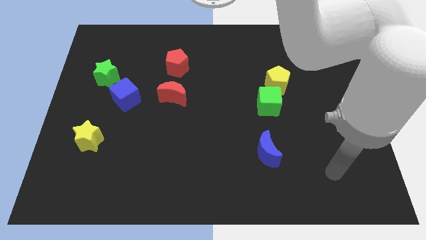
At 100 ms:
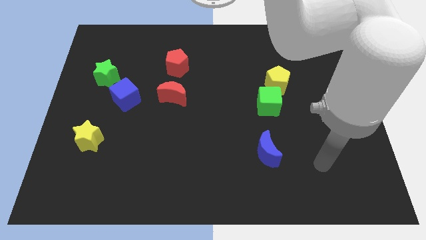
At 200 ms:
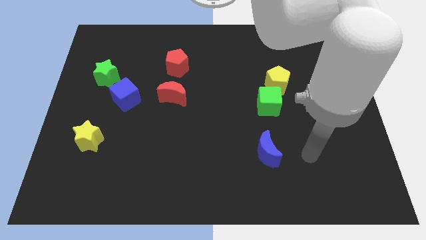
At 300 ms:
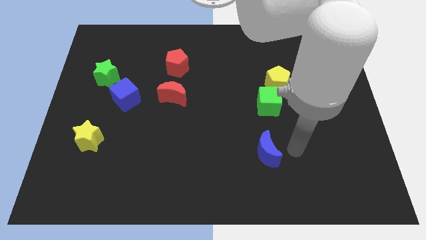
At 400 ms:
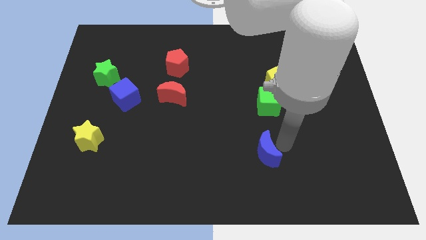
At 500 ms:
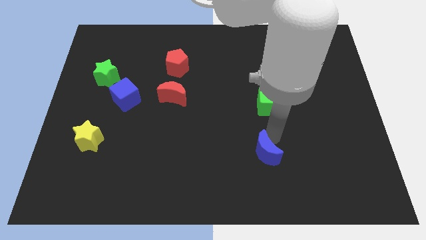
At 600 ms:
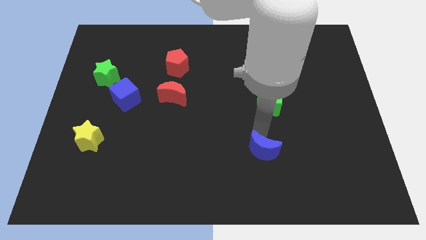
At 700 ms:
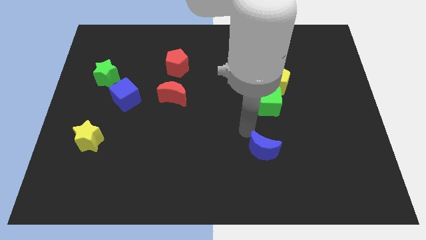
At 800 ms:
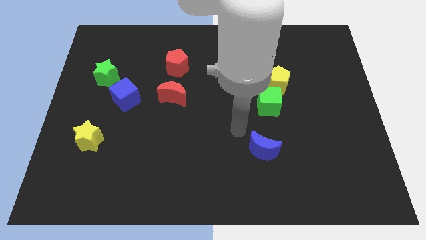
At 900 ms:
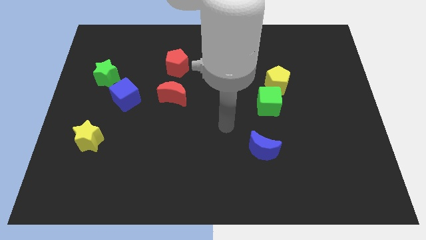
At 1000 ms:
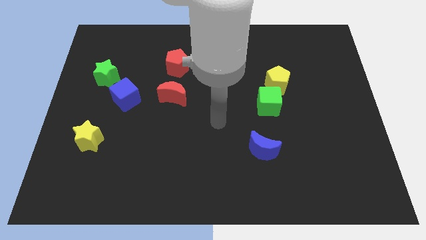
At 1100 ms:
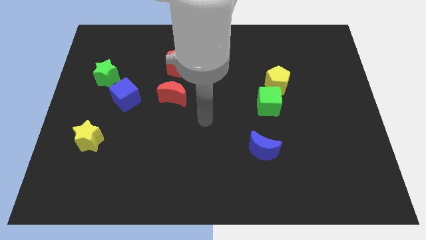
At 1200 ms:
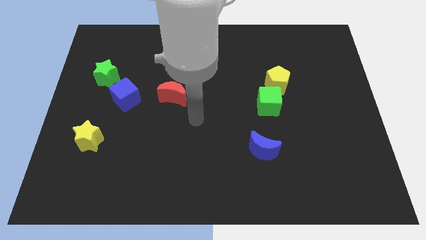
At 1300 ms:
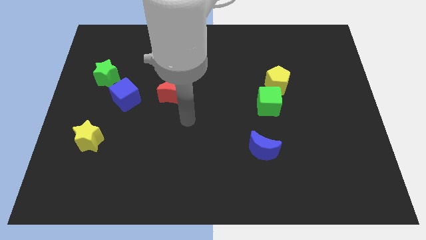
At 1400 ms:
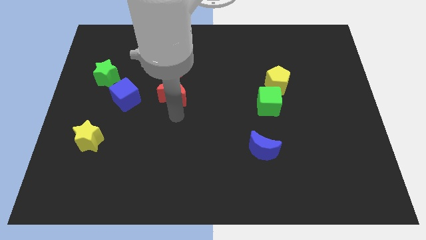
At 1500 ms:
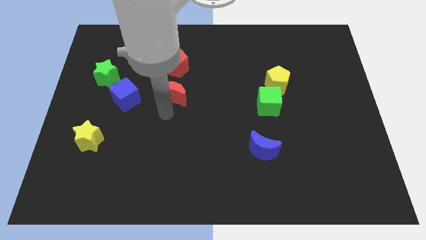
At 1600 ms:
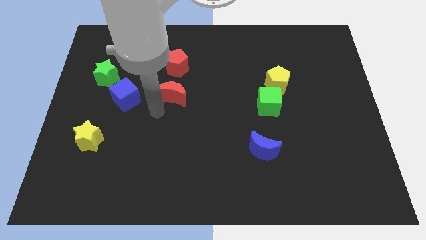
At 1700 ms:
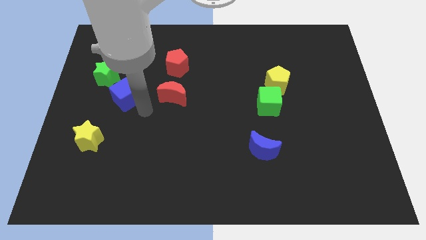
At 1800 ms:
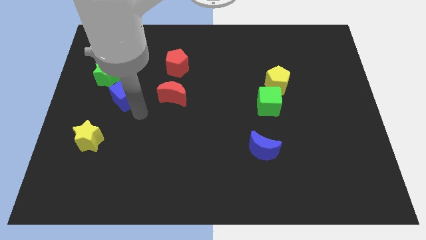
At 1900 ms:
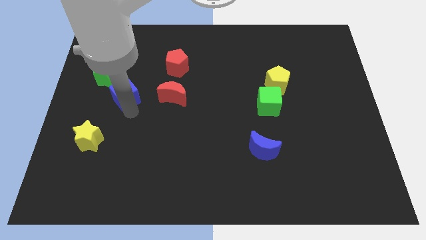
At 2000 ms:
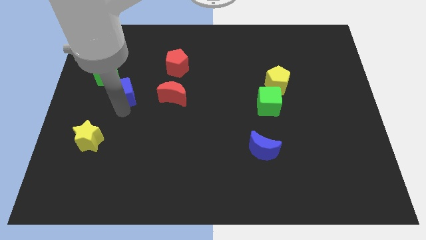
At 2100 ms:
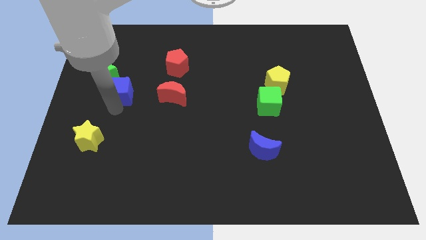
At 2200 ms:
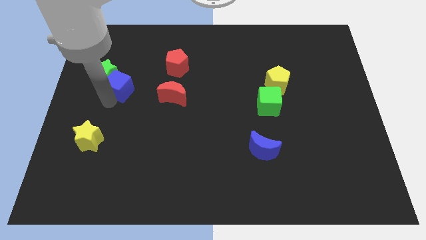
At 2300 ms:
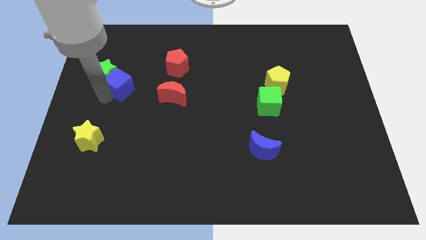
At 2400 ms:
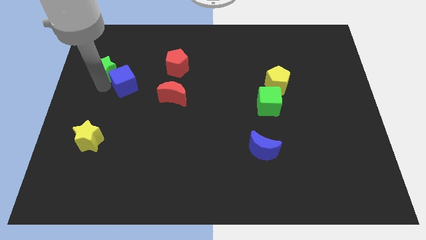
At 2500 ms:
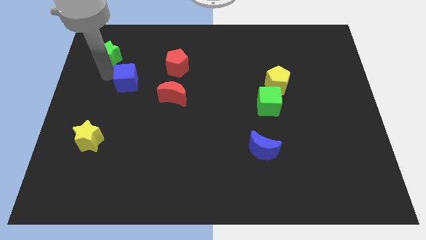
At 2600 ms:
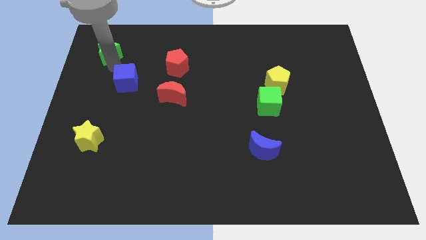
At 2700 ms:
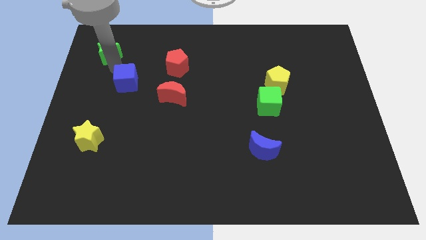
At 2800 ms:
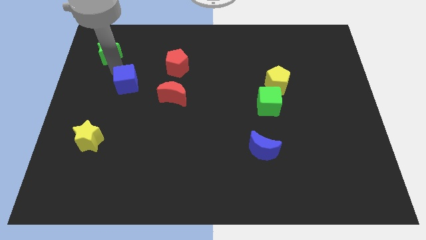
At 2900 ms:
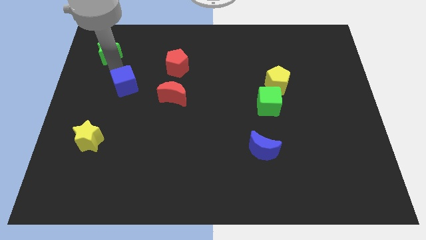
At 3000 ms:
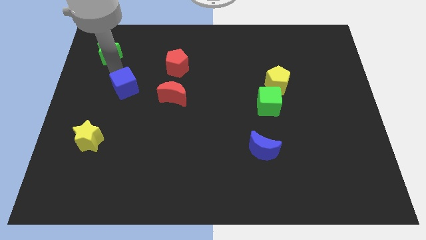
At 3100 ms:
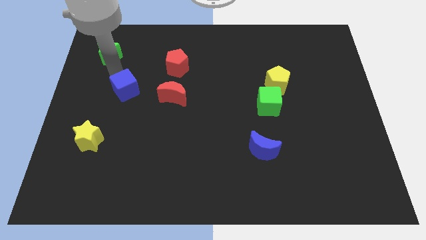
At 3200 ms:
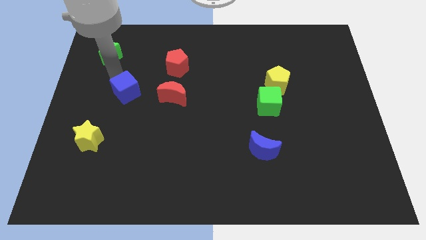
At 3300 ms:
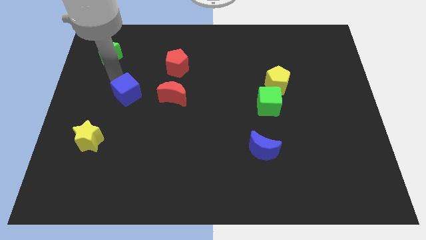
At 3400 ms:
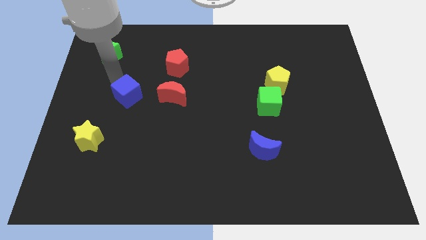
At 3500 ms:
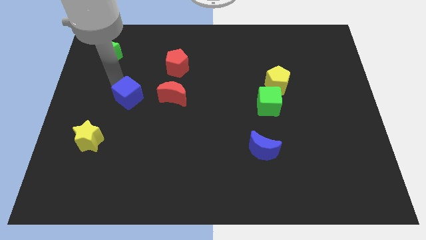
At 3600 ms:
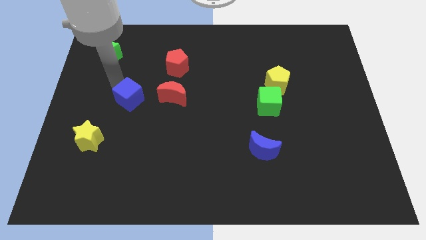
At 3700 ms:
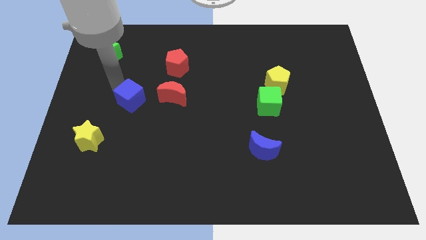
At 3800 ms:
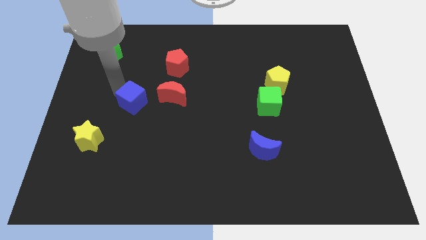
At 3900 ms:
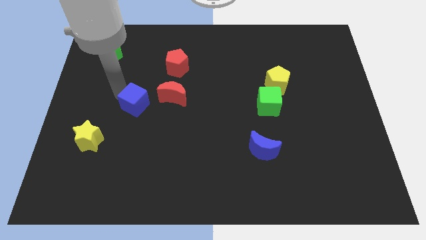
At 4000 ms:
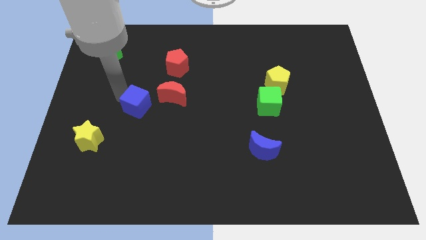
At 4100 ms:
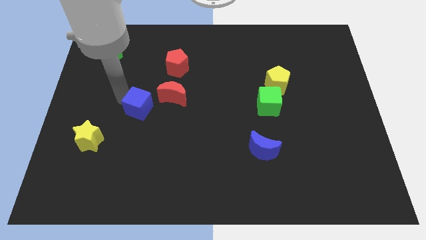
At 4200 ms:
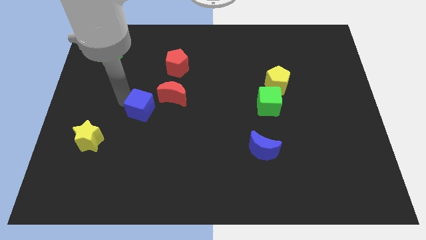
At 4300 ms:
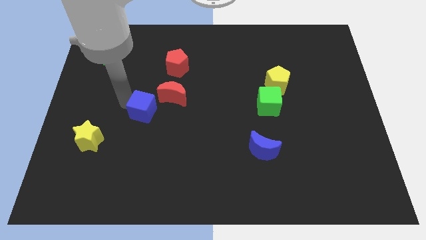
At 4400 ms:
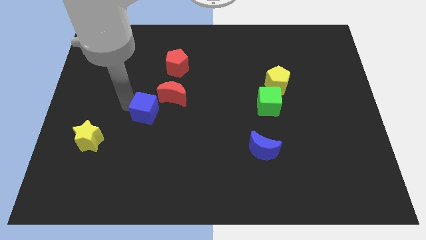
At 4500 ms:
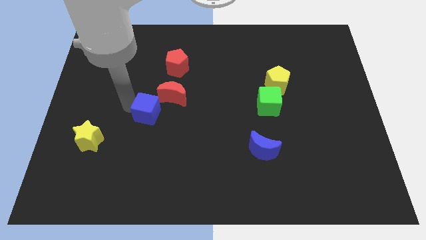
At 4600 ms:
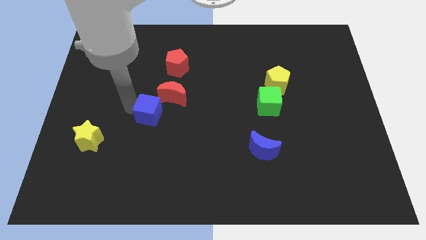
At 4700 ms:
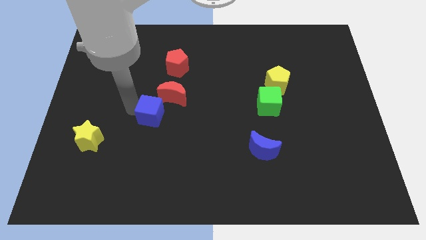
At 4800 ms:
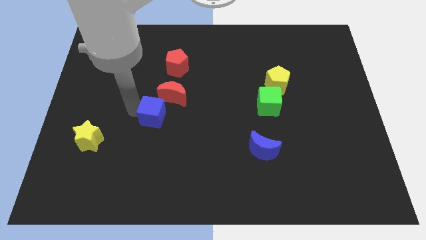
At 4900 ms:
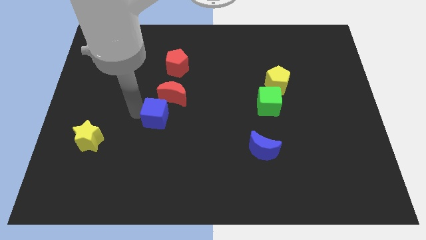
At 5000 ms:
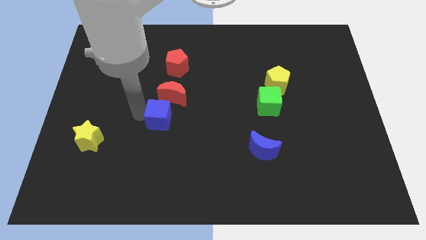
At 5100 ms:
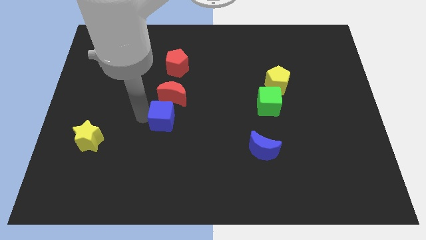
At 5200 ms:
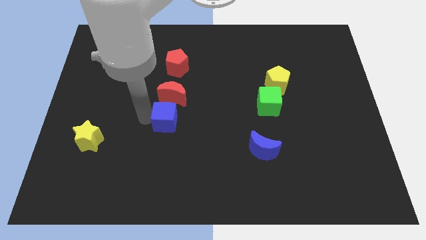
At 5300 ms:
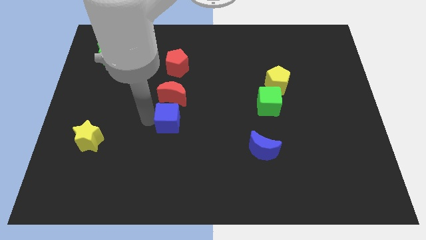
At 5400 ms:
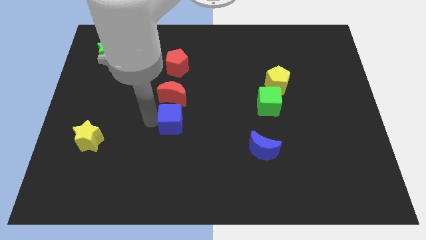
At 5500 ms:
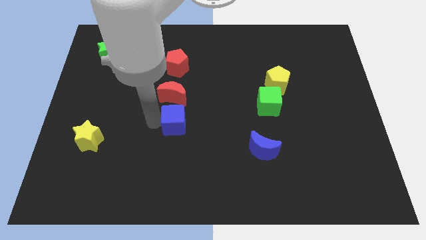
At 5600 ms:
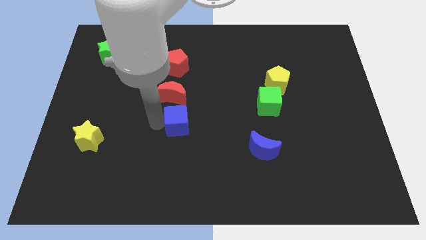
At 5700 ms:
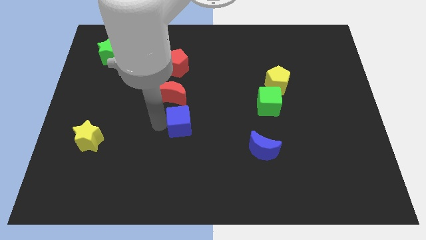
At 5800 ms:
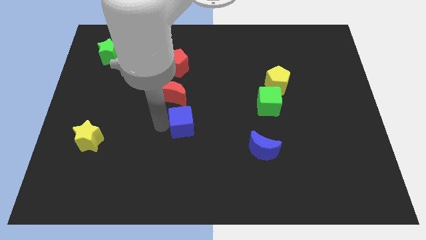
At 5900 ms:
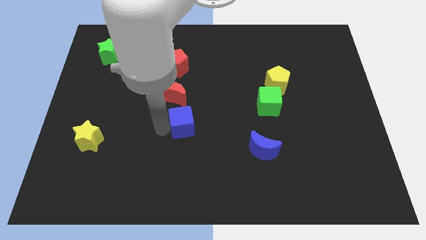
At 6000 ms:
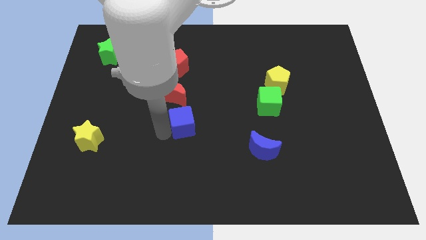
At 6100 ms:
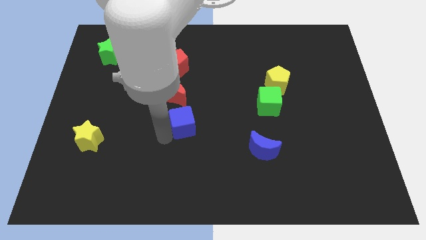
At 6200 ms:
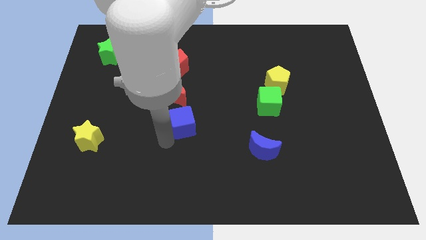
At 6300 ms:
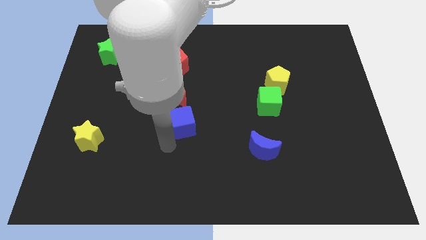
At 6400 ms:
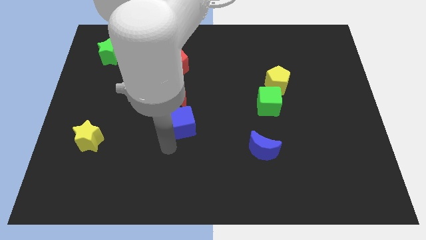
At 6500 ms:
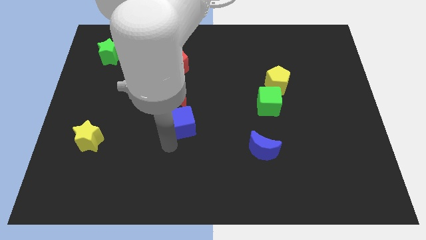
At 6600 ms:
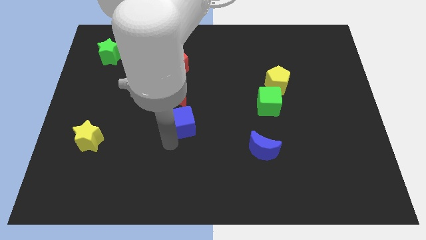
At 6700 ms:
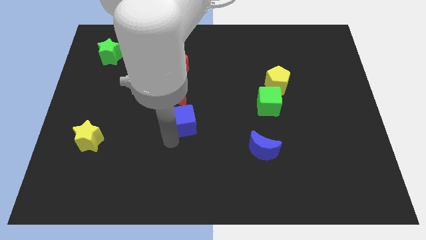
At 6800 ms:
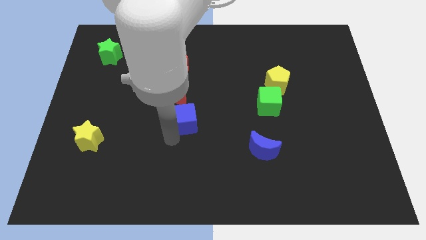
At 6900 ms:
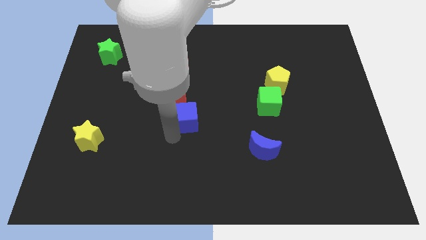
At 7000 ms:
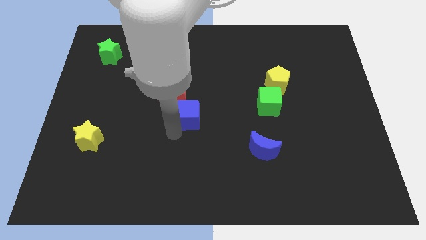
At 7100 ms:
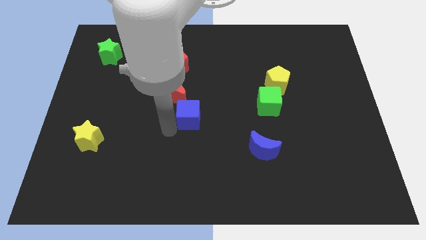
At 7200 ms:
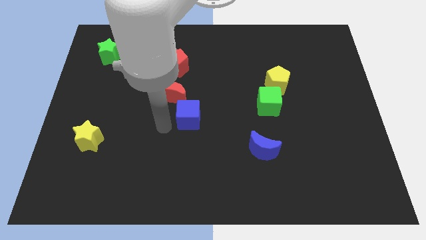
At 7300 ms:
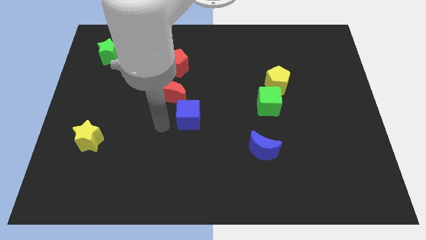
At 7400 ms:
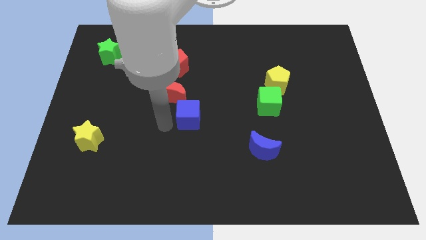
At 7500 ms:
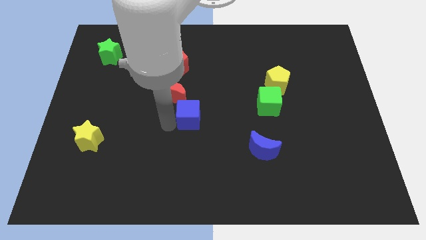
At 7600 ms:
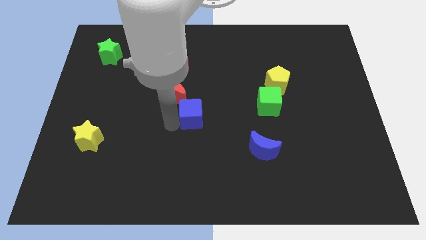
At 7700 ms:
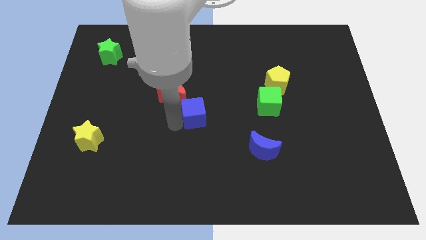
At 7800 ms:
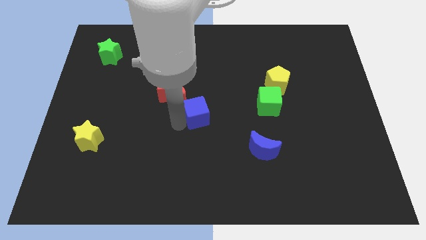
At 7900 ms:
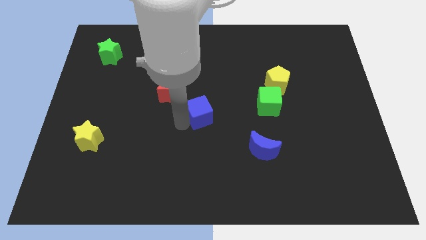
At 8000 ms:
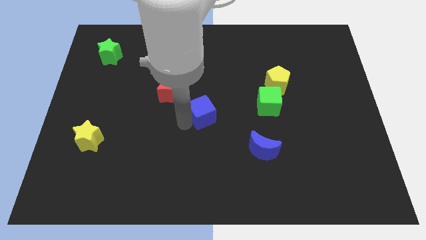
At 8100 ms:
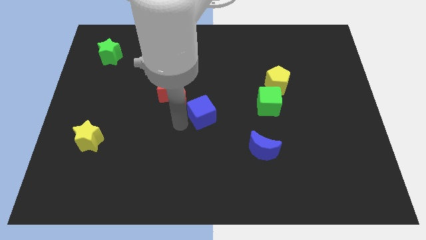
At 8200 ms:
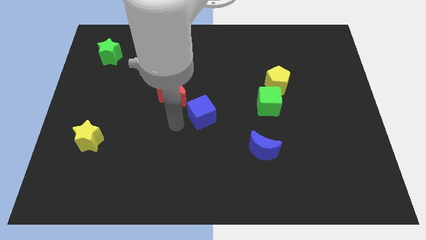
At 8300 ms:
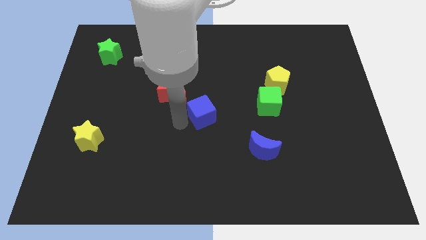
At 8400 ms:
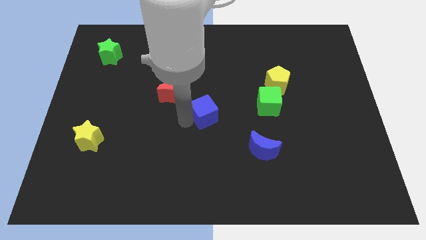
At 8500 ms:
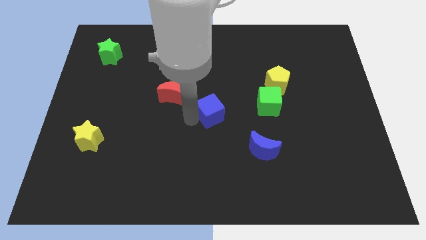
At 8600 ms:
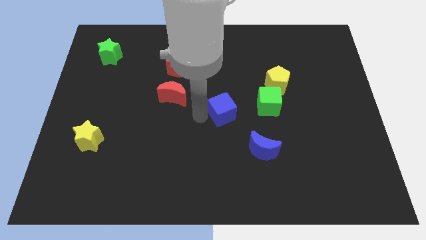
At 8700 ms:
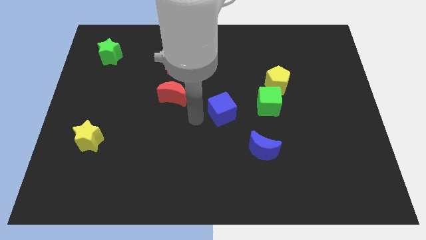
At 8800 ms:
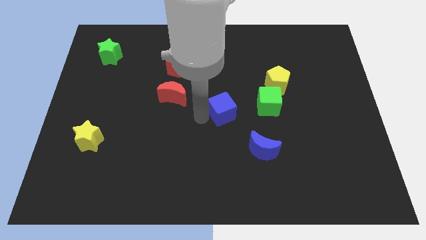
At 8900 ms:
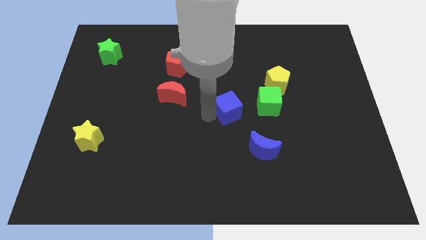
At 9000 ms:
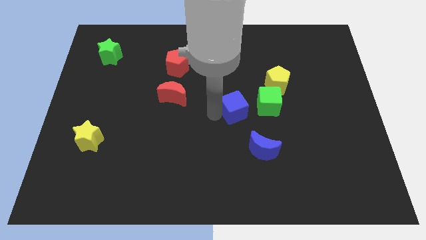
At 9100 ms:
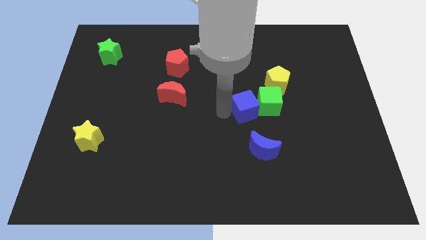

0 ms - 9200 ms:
slide the blue cube towards the green cube
